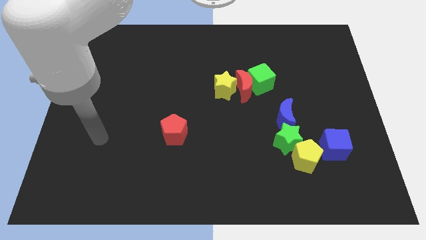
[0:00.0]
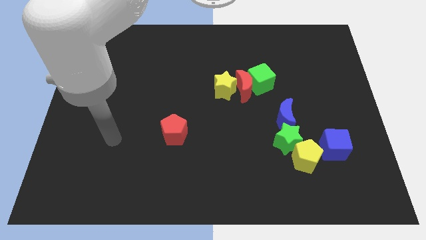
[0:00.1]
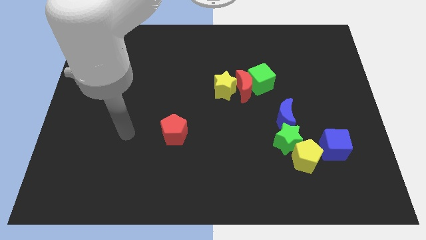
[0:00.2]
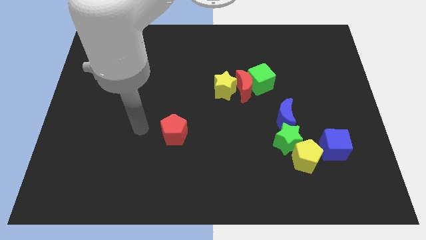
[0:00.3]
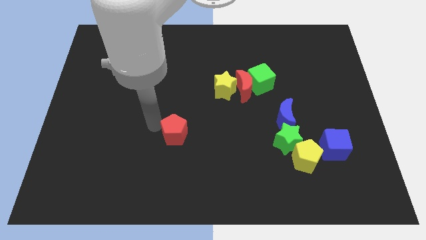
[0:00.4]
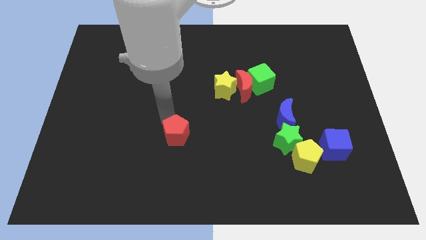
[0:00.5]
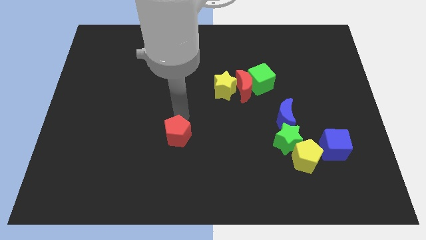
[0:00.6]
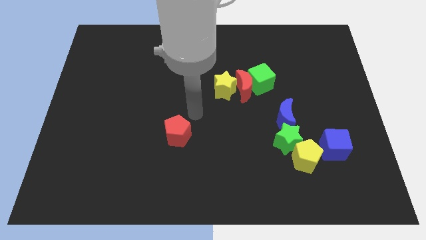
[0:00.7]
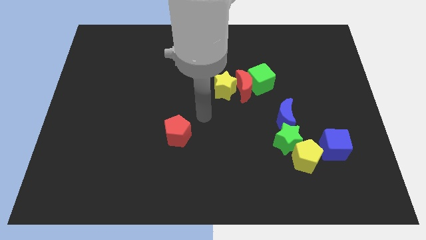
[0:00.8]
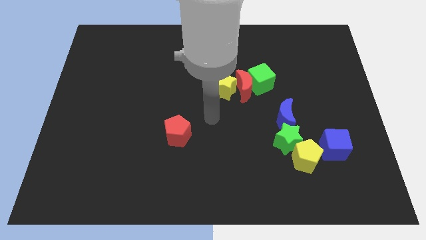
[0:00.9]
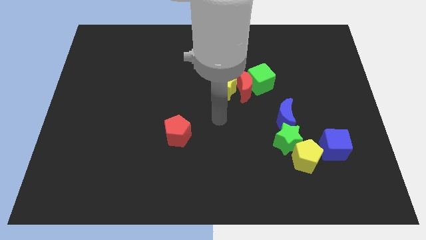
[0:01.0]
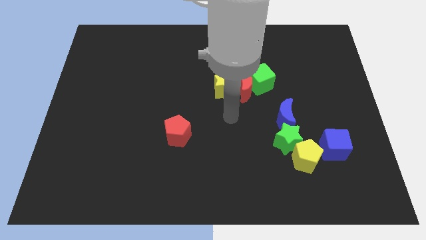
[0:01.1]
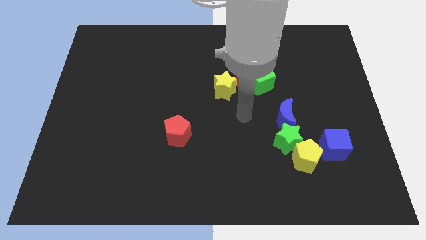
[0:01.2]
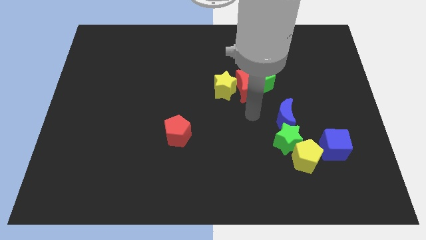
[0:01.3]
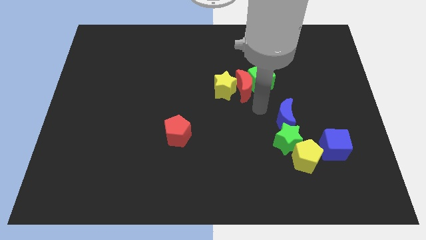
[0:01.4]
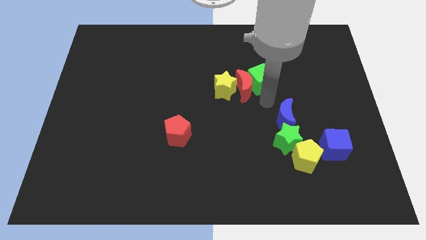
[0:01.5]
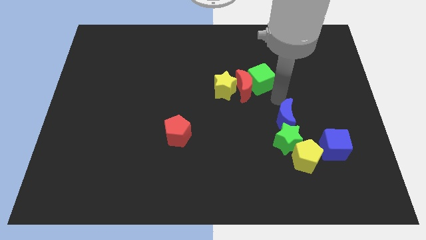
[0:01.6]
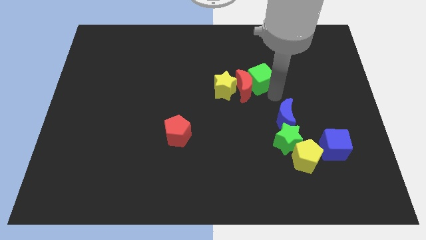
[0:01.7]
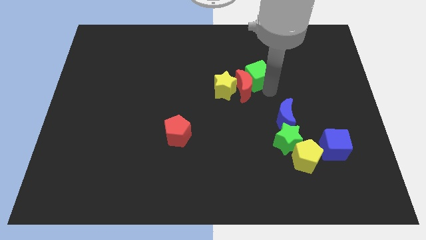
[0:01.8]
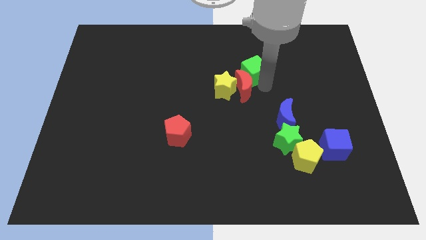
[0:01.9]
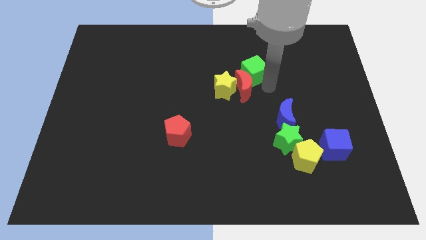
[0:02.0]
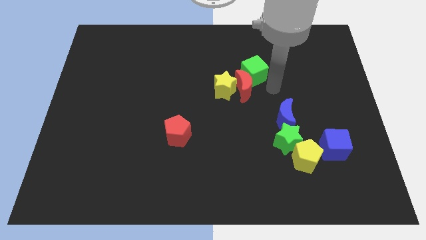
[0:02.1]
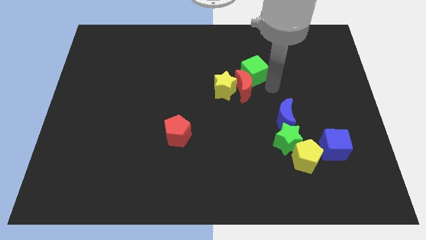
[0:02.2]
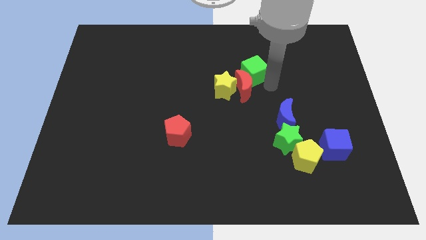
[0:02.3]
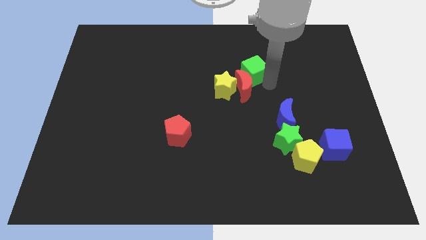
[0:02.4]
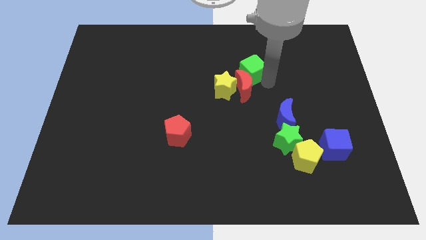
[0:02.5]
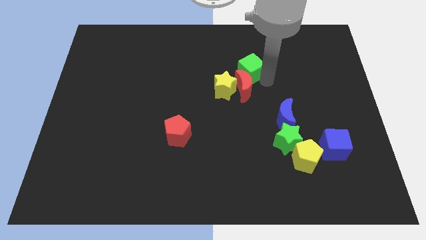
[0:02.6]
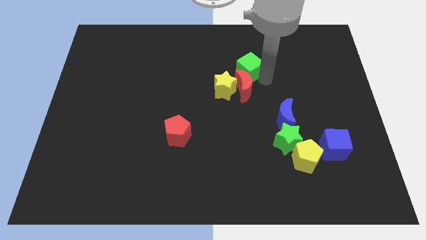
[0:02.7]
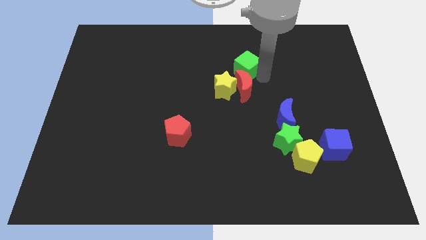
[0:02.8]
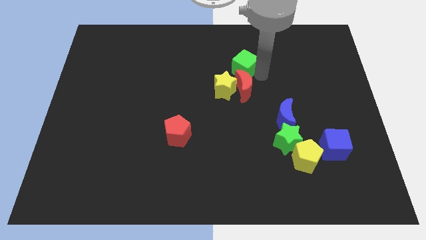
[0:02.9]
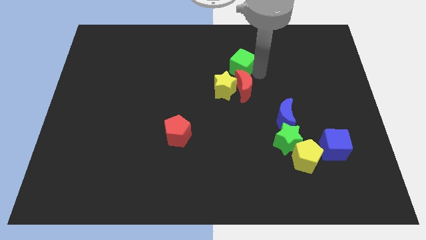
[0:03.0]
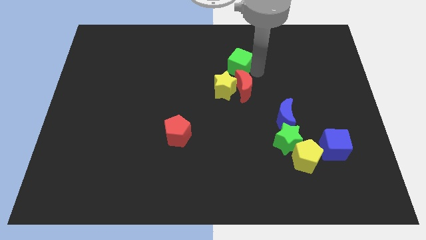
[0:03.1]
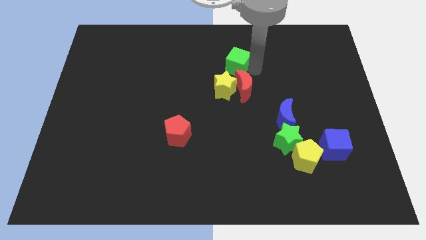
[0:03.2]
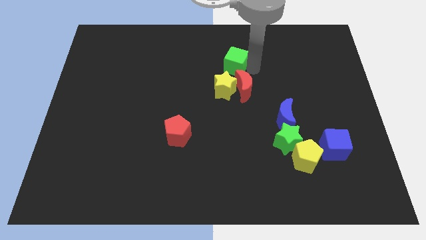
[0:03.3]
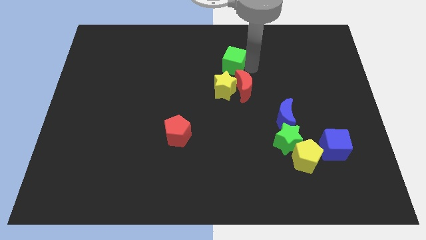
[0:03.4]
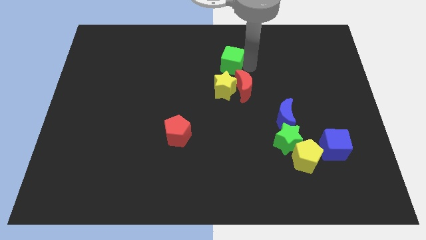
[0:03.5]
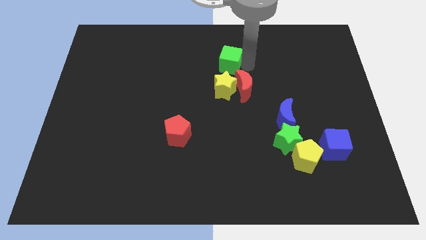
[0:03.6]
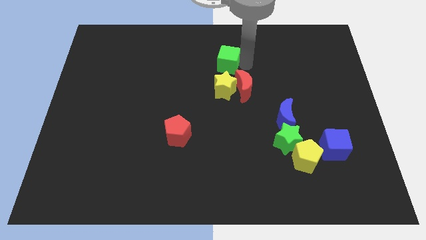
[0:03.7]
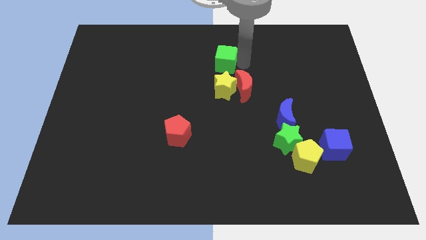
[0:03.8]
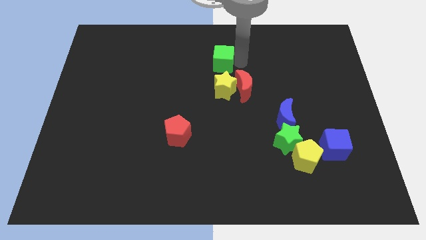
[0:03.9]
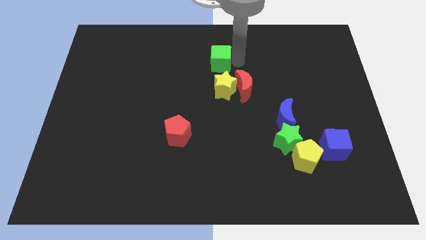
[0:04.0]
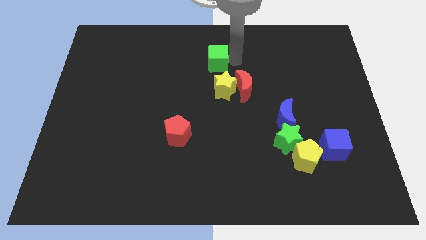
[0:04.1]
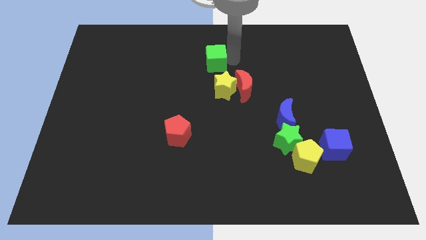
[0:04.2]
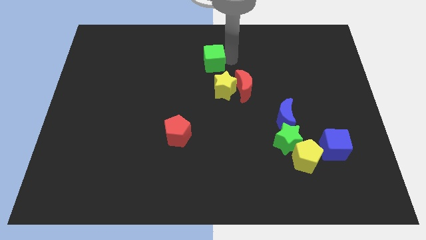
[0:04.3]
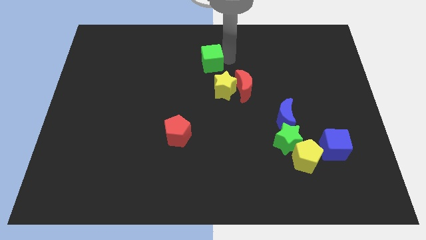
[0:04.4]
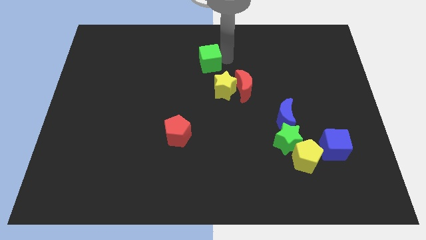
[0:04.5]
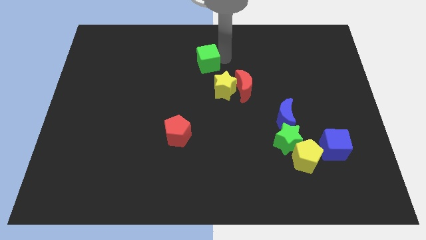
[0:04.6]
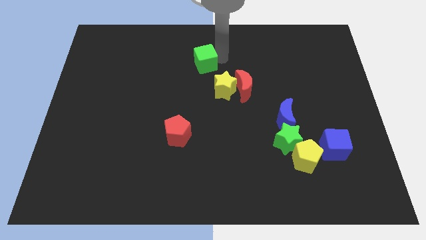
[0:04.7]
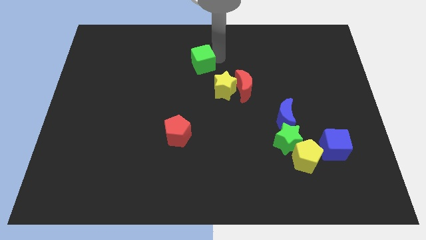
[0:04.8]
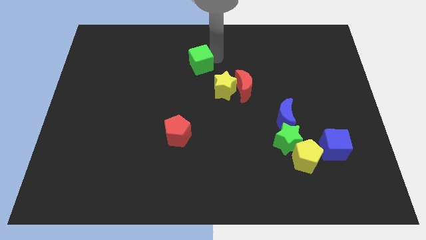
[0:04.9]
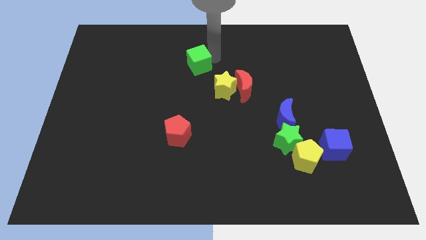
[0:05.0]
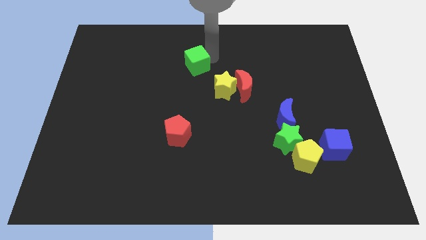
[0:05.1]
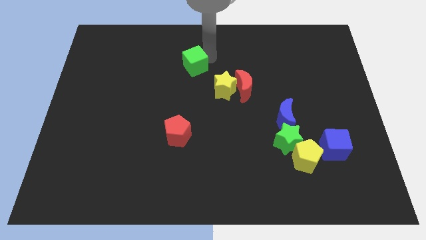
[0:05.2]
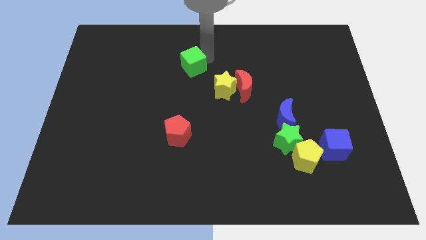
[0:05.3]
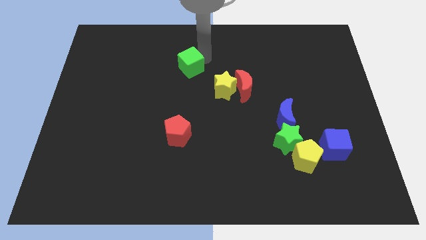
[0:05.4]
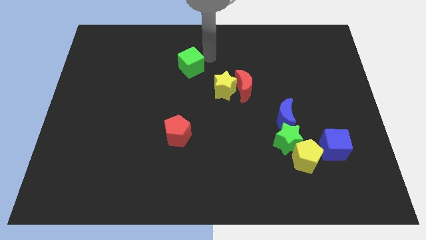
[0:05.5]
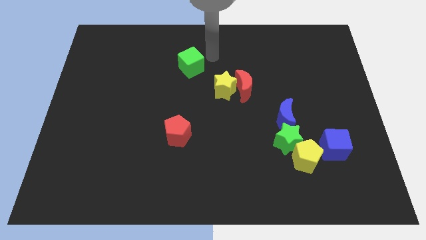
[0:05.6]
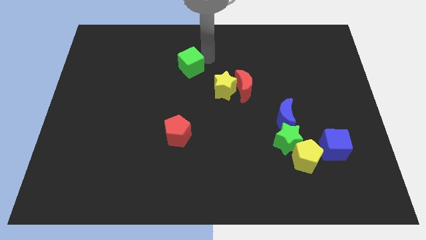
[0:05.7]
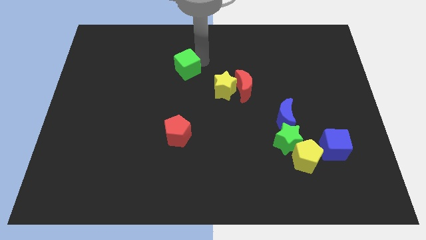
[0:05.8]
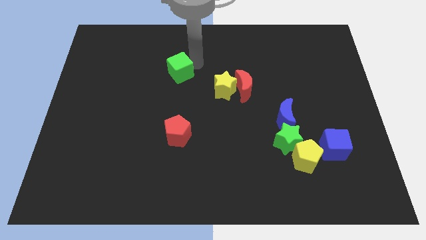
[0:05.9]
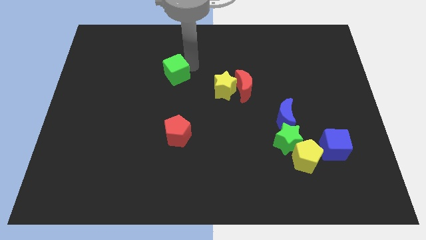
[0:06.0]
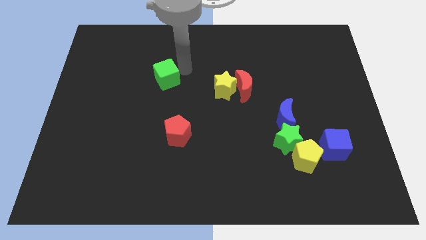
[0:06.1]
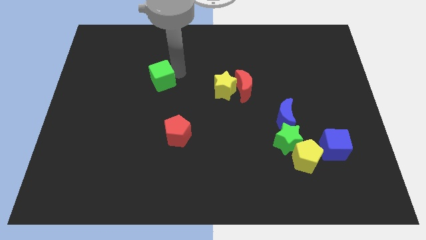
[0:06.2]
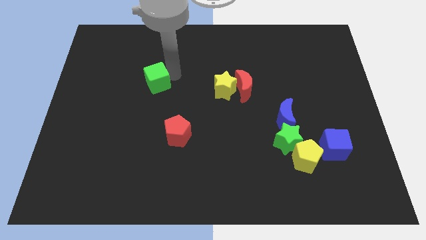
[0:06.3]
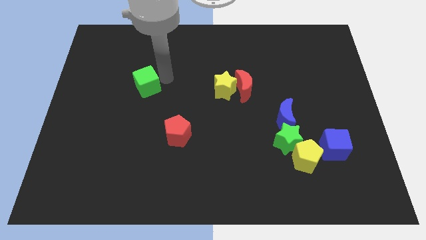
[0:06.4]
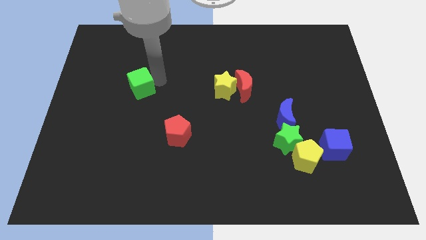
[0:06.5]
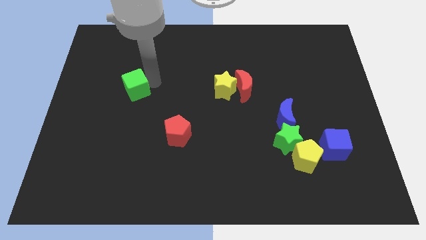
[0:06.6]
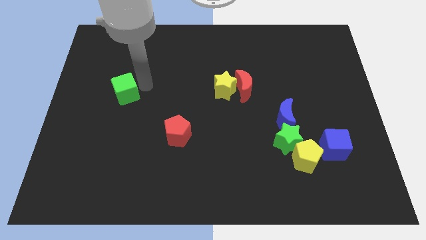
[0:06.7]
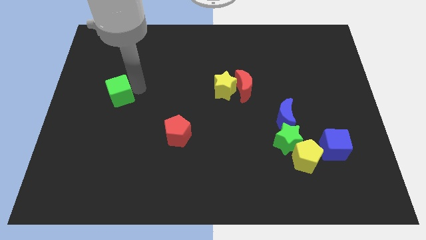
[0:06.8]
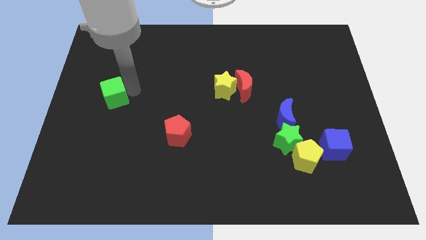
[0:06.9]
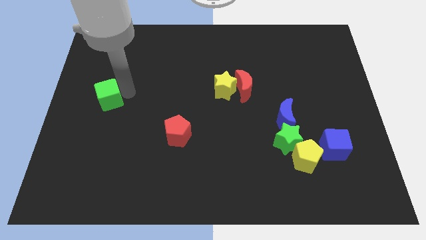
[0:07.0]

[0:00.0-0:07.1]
put the green cube to the left side
